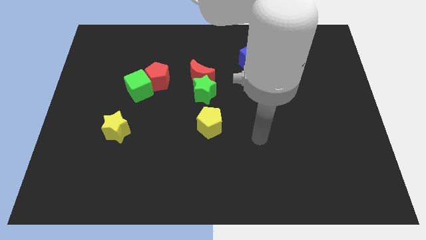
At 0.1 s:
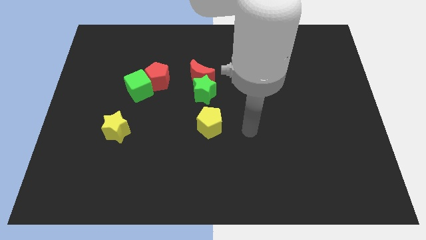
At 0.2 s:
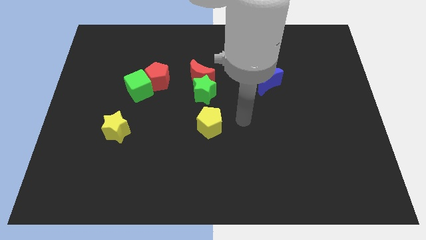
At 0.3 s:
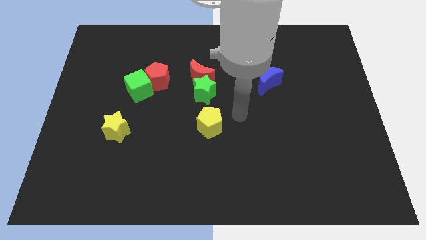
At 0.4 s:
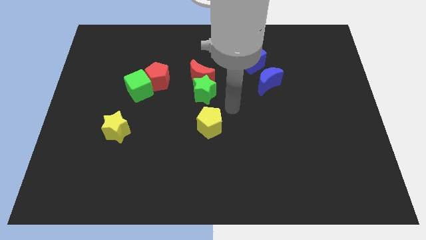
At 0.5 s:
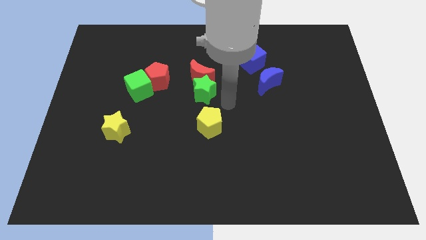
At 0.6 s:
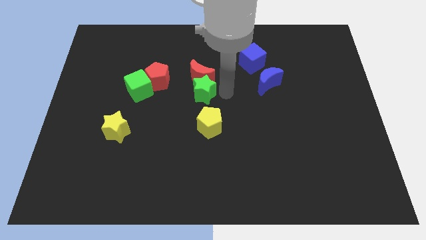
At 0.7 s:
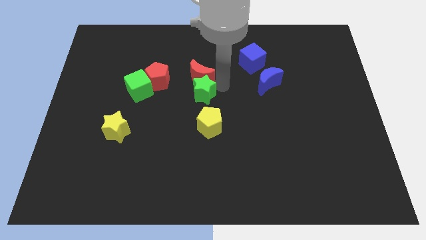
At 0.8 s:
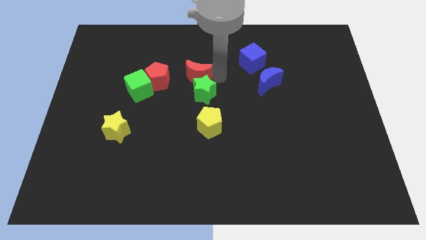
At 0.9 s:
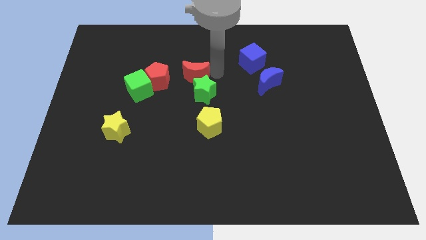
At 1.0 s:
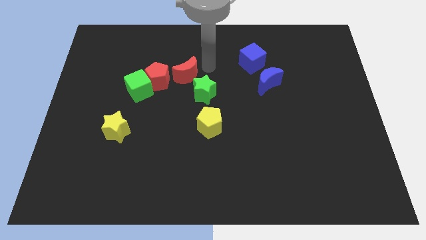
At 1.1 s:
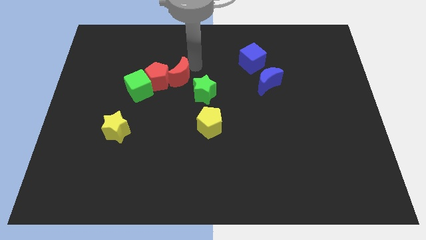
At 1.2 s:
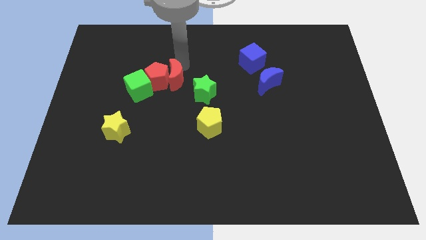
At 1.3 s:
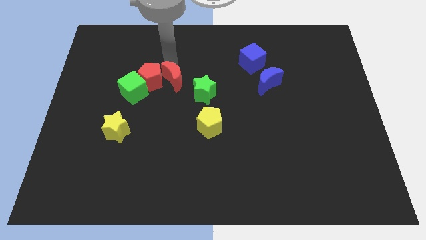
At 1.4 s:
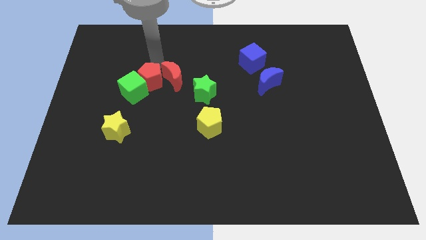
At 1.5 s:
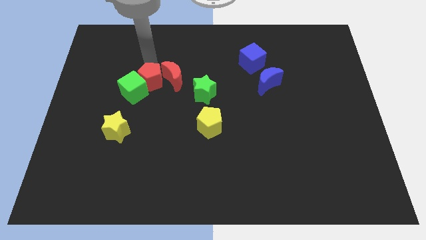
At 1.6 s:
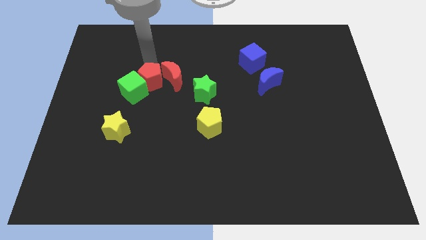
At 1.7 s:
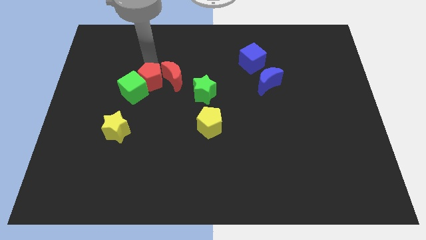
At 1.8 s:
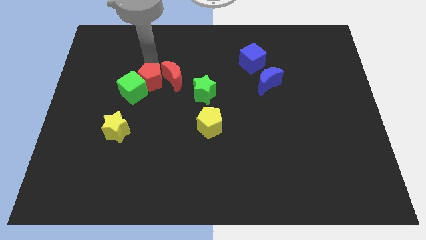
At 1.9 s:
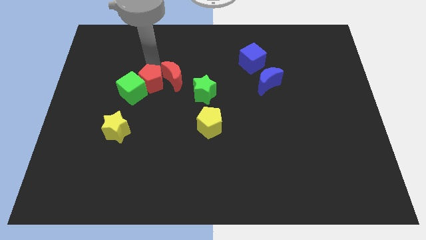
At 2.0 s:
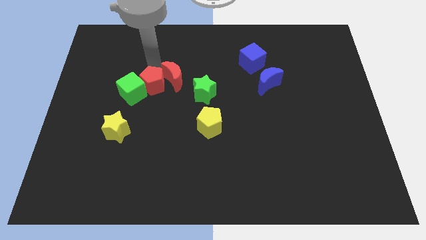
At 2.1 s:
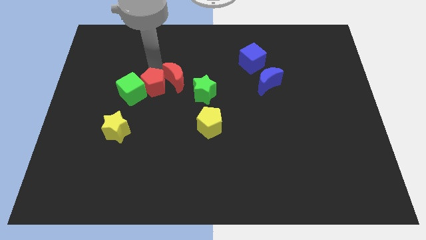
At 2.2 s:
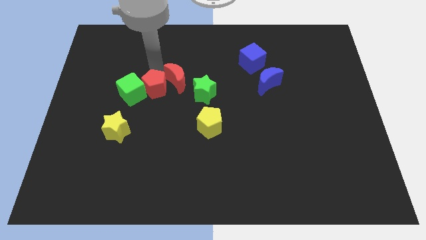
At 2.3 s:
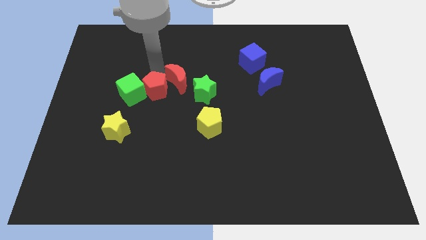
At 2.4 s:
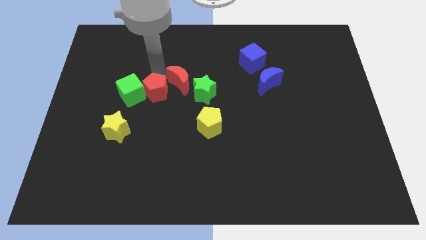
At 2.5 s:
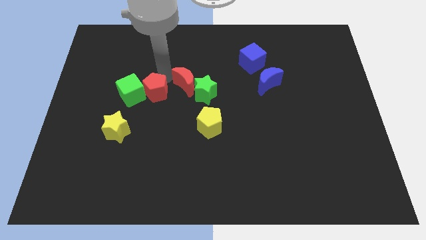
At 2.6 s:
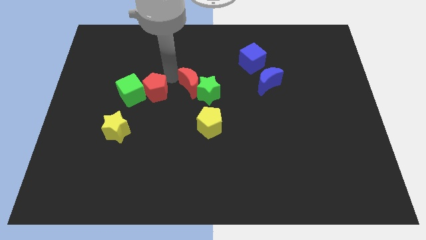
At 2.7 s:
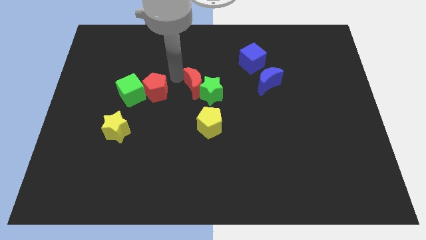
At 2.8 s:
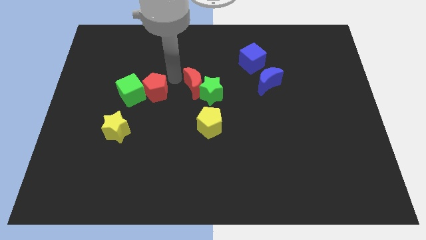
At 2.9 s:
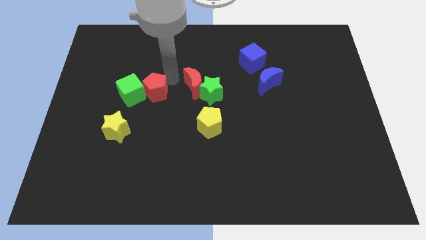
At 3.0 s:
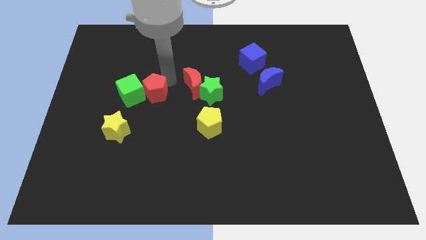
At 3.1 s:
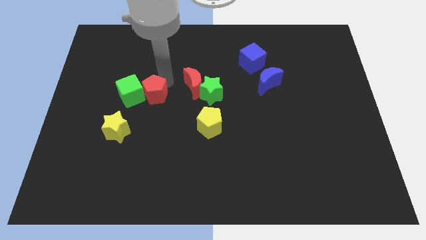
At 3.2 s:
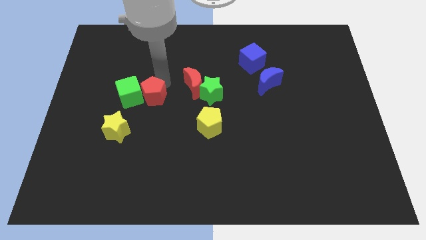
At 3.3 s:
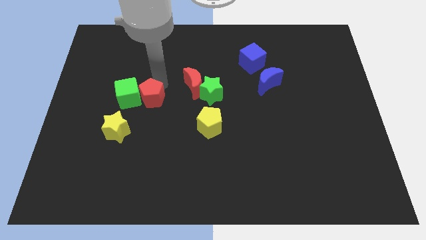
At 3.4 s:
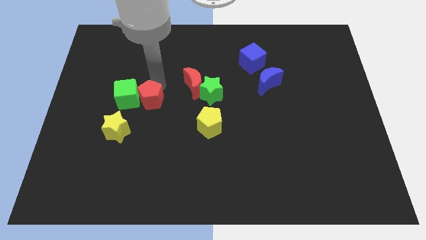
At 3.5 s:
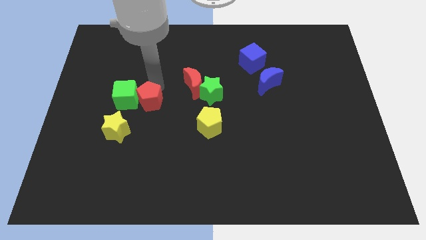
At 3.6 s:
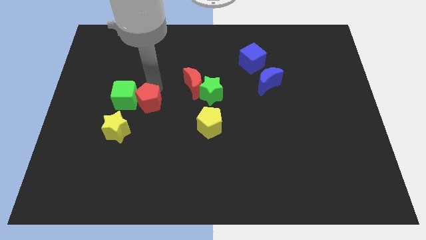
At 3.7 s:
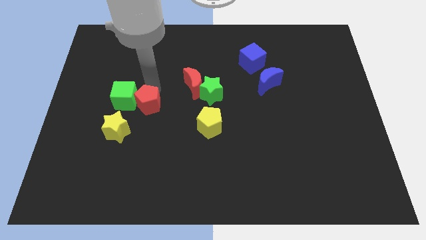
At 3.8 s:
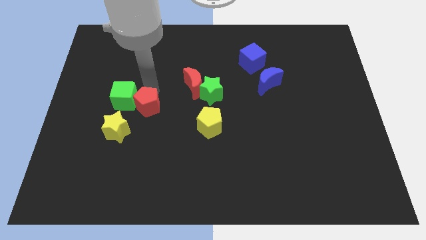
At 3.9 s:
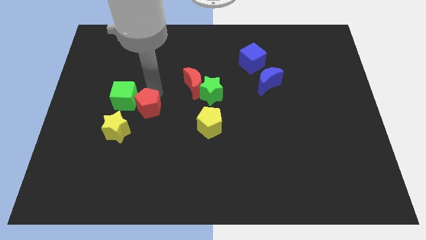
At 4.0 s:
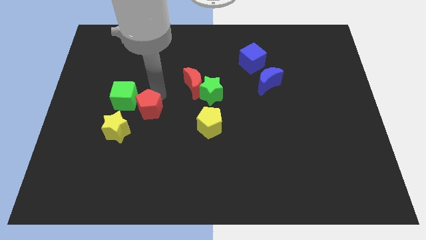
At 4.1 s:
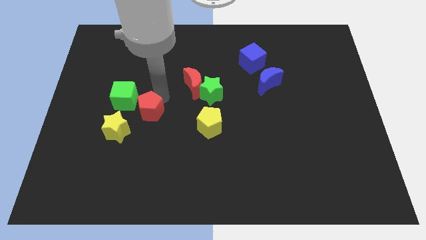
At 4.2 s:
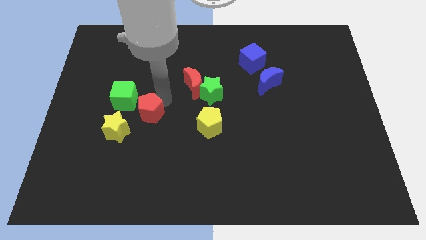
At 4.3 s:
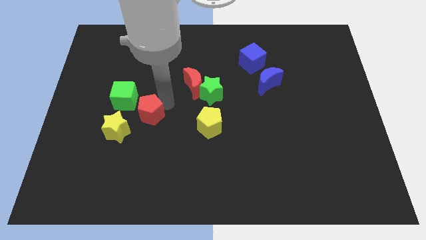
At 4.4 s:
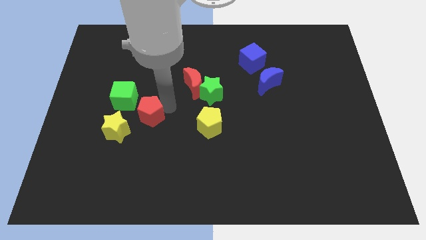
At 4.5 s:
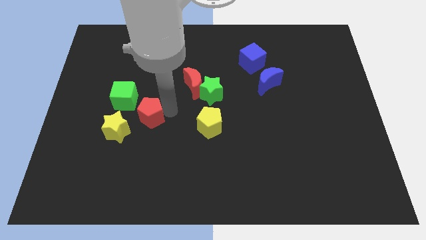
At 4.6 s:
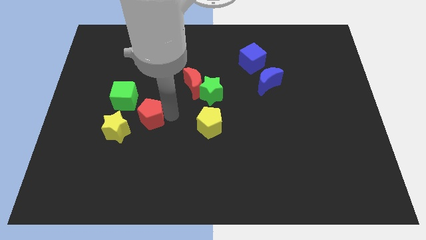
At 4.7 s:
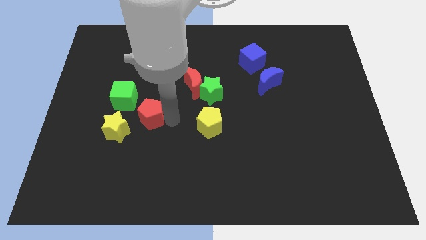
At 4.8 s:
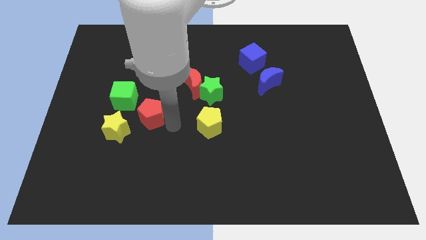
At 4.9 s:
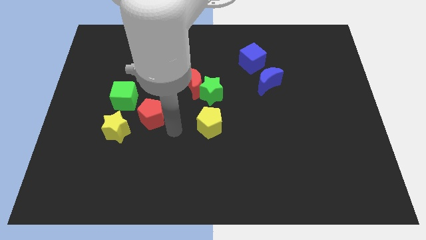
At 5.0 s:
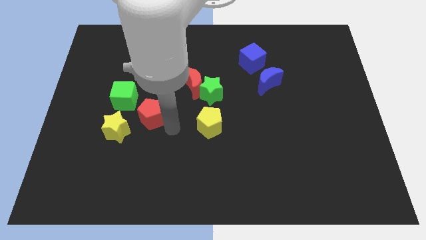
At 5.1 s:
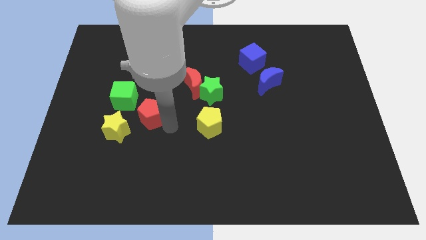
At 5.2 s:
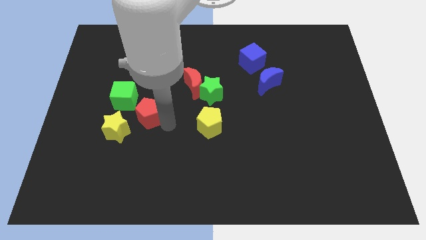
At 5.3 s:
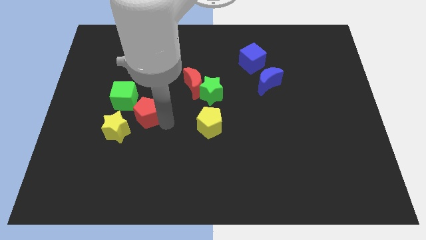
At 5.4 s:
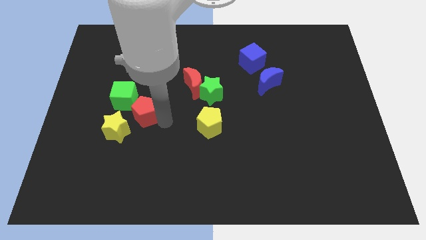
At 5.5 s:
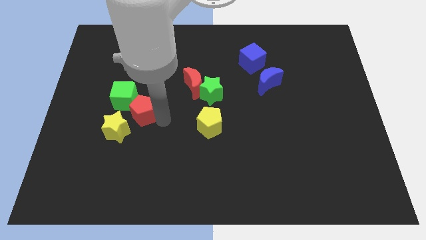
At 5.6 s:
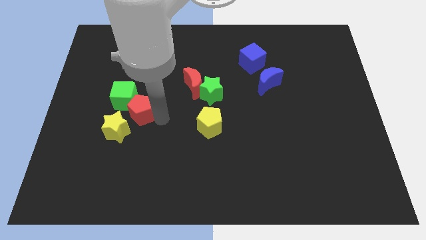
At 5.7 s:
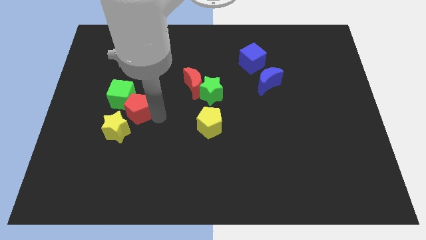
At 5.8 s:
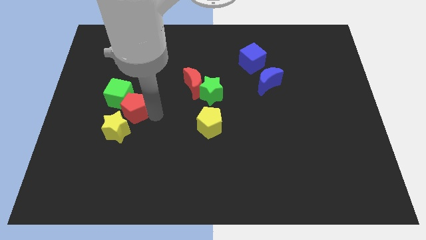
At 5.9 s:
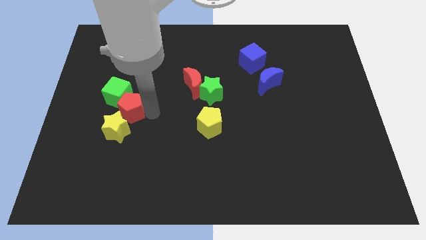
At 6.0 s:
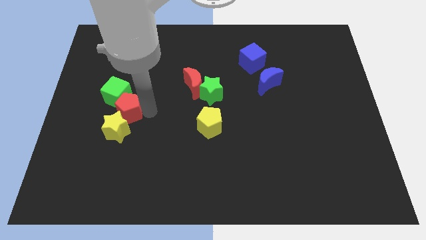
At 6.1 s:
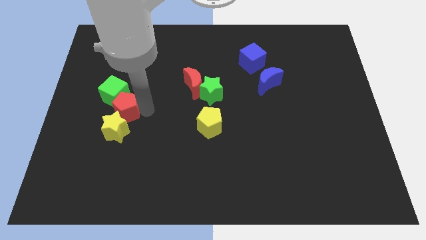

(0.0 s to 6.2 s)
slide the red pentagon to the top left side of the yellow star

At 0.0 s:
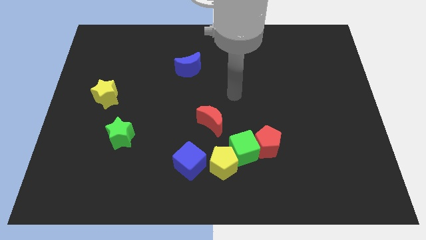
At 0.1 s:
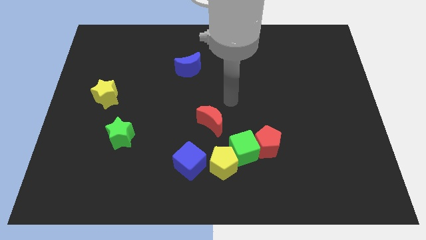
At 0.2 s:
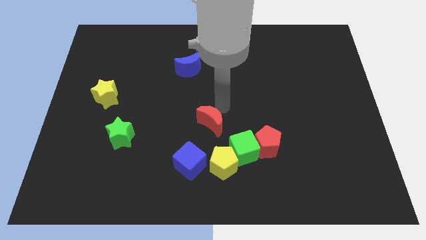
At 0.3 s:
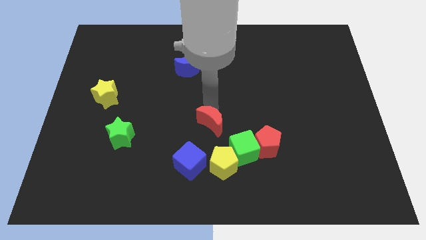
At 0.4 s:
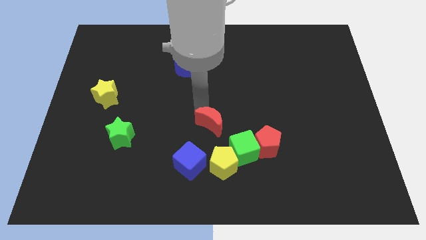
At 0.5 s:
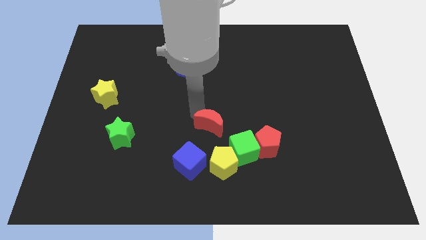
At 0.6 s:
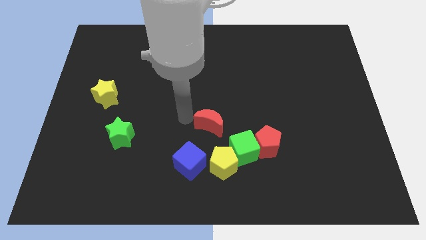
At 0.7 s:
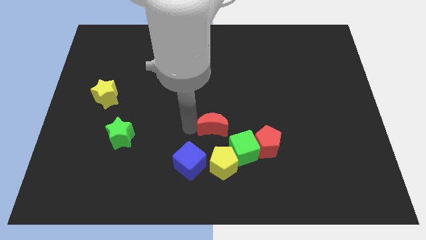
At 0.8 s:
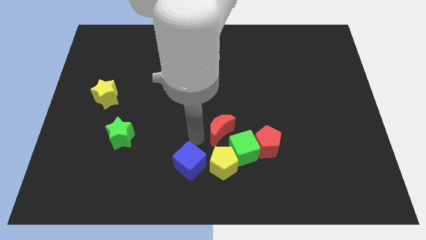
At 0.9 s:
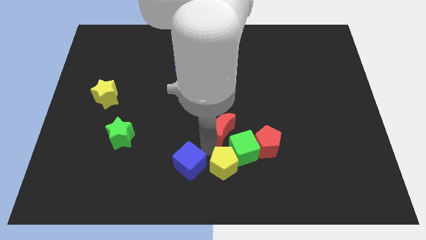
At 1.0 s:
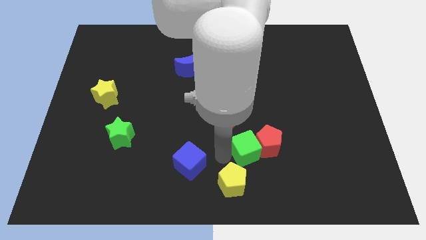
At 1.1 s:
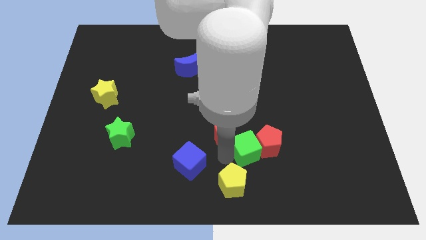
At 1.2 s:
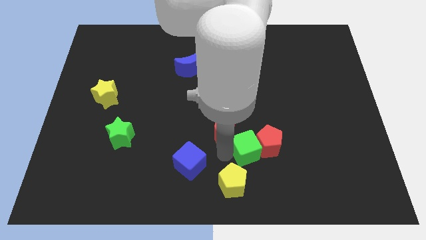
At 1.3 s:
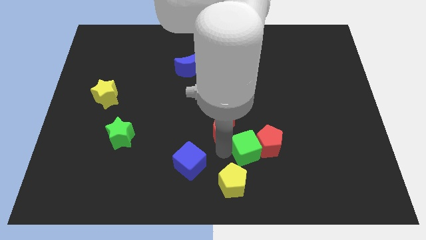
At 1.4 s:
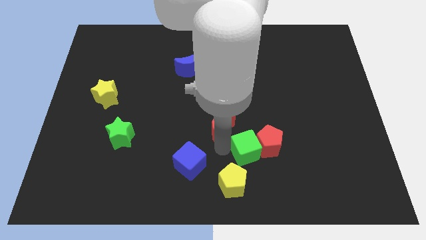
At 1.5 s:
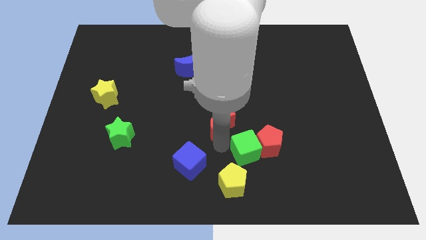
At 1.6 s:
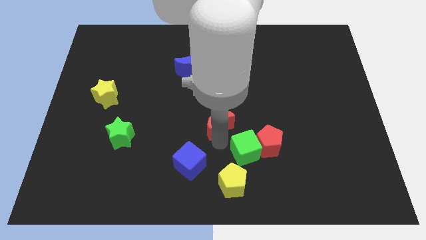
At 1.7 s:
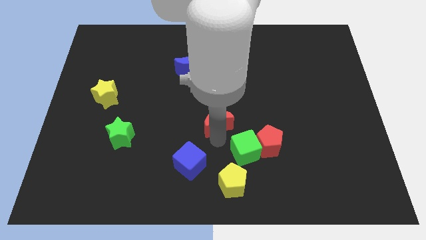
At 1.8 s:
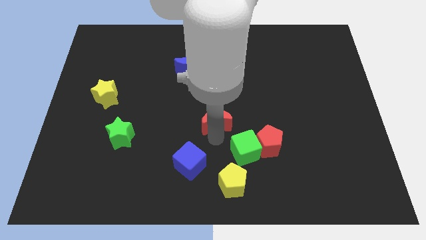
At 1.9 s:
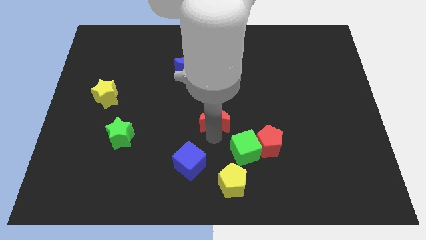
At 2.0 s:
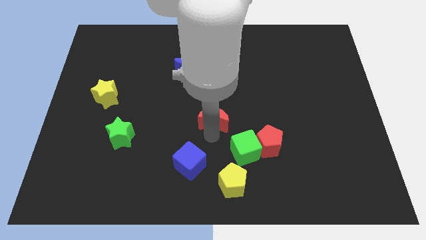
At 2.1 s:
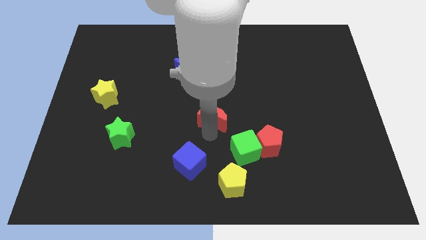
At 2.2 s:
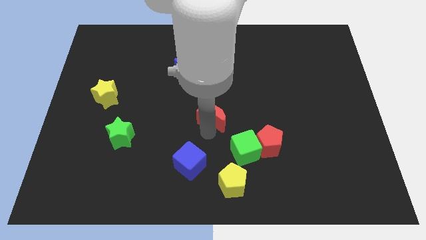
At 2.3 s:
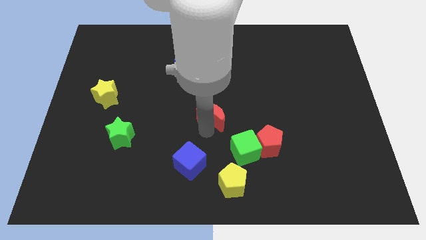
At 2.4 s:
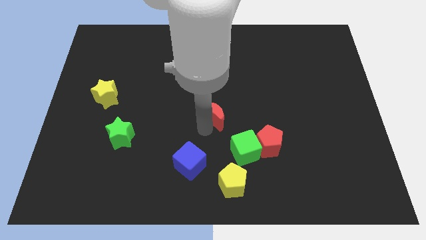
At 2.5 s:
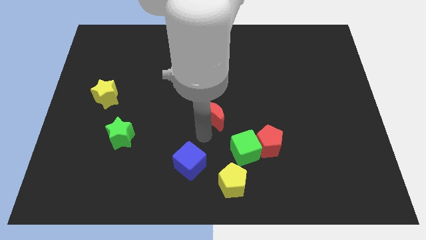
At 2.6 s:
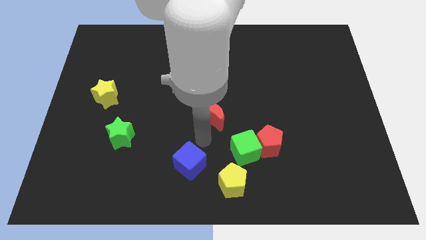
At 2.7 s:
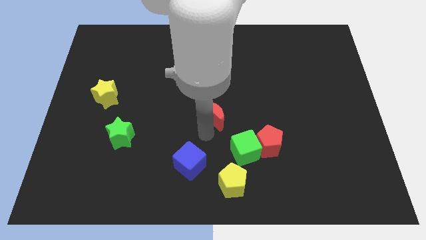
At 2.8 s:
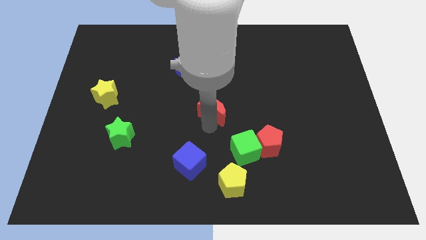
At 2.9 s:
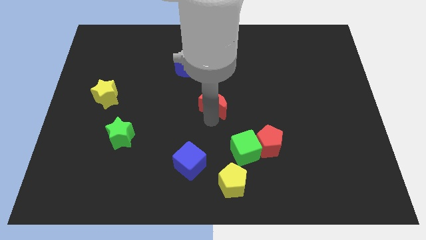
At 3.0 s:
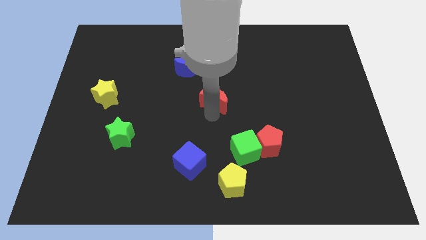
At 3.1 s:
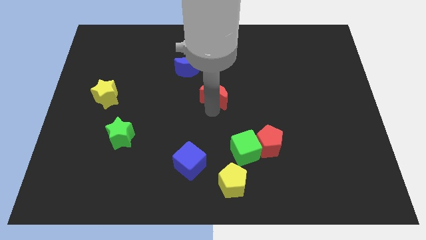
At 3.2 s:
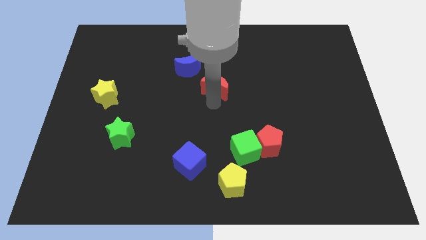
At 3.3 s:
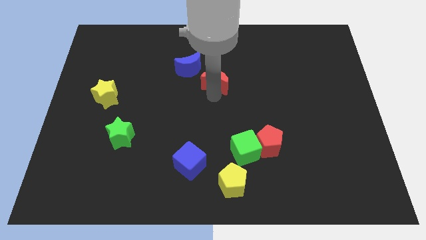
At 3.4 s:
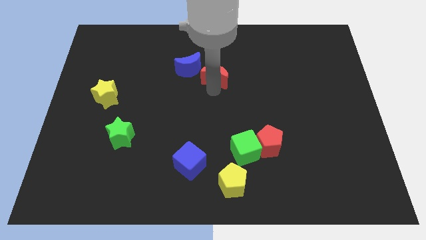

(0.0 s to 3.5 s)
put the red moon right of the blue moon
